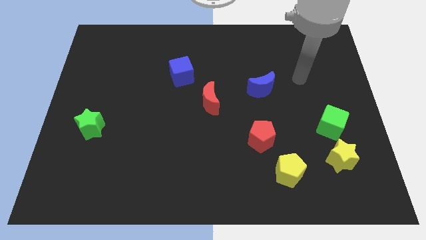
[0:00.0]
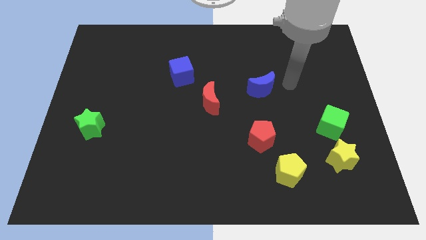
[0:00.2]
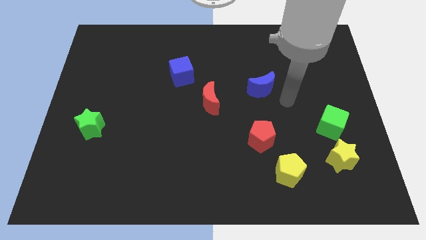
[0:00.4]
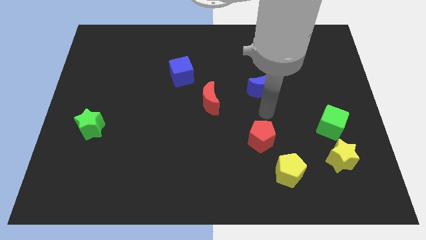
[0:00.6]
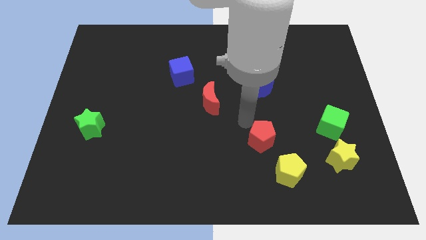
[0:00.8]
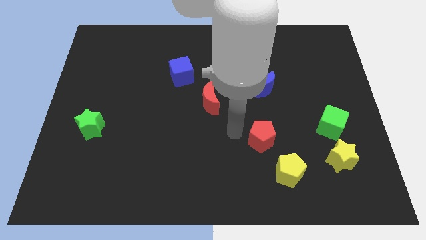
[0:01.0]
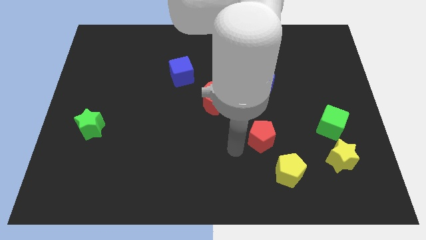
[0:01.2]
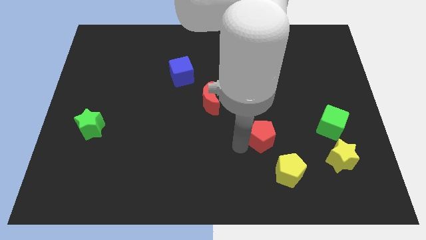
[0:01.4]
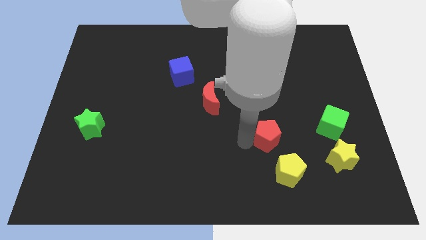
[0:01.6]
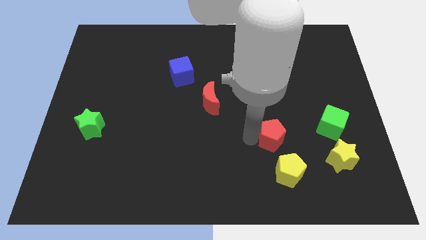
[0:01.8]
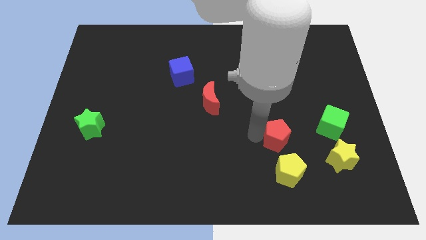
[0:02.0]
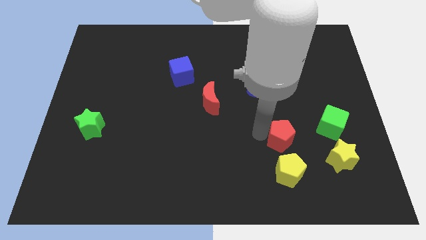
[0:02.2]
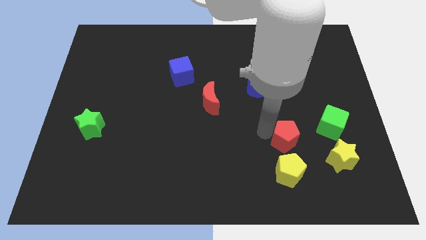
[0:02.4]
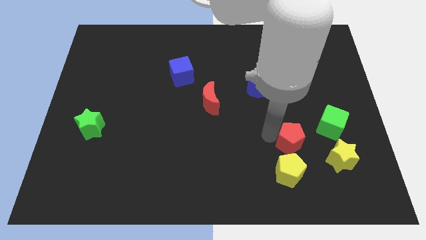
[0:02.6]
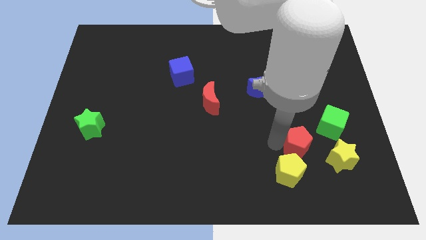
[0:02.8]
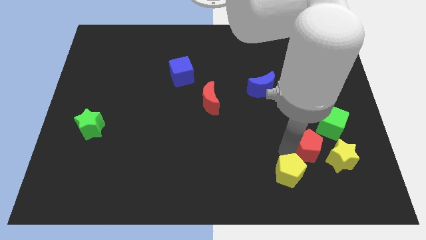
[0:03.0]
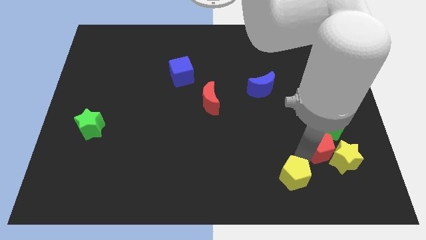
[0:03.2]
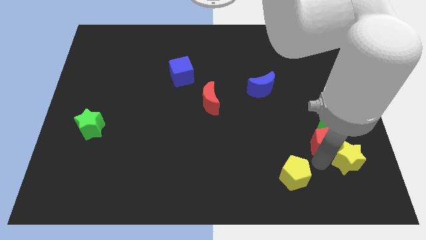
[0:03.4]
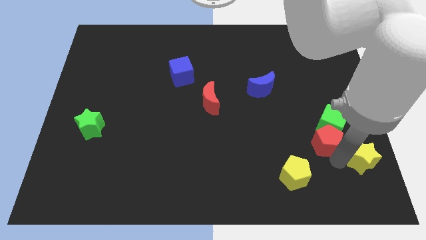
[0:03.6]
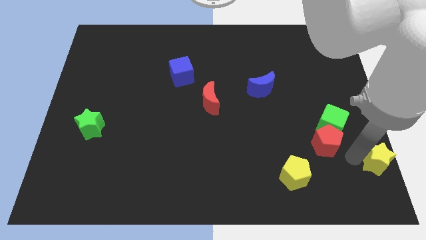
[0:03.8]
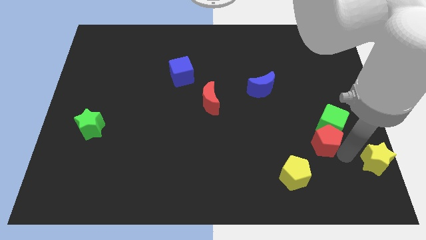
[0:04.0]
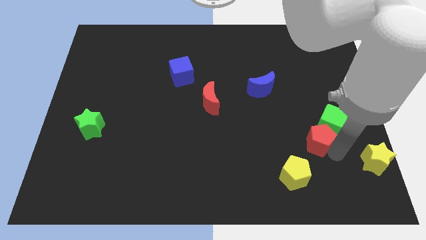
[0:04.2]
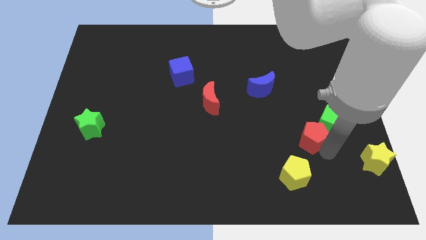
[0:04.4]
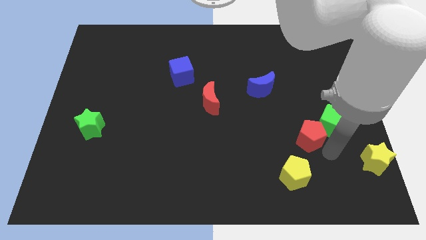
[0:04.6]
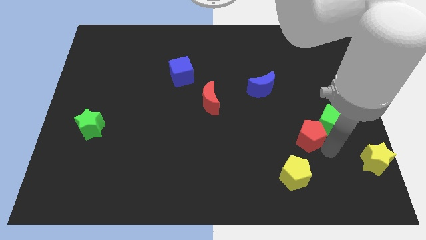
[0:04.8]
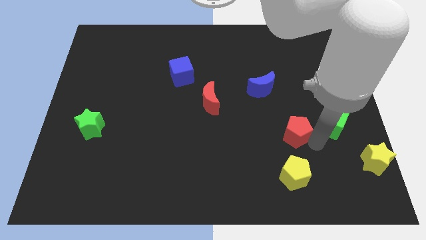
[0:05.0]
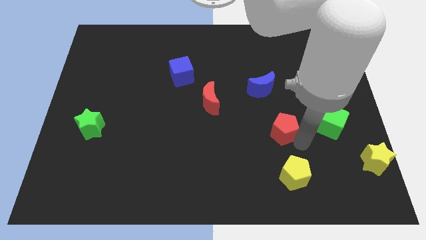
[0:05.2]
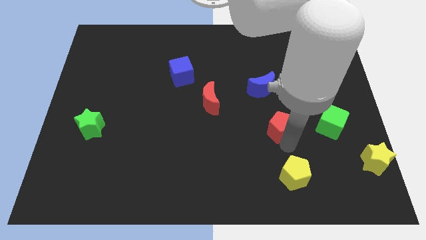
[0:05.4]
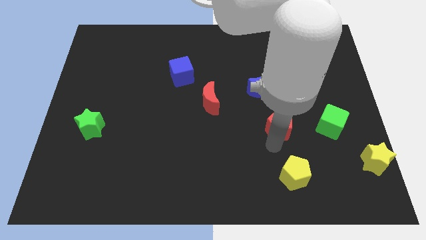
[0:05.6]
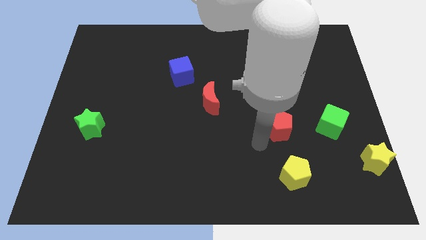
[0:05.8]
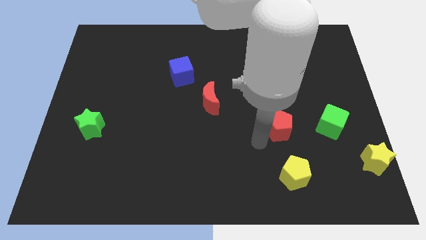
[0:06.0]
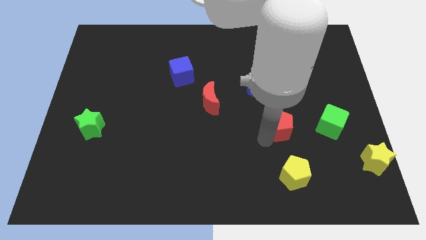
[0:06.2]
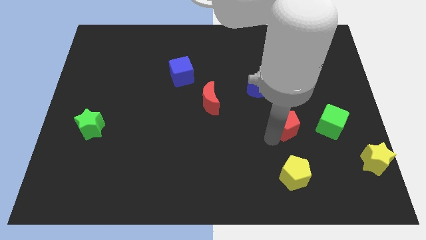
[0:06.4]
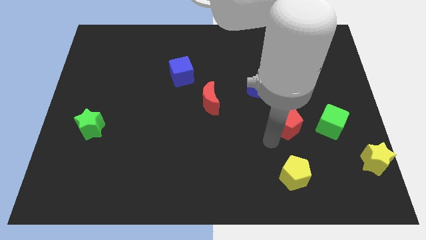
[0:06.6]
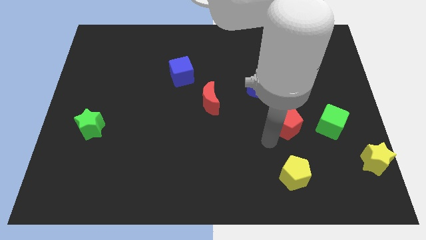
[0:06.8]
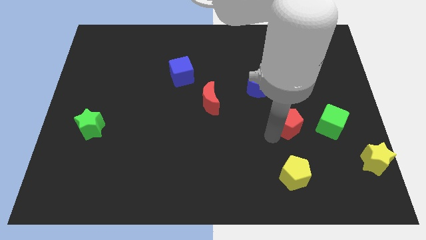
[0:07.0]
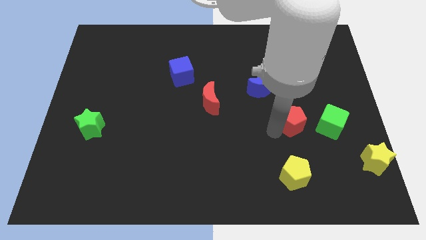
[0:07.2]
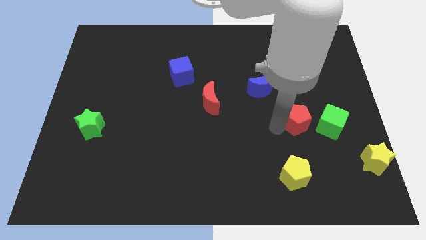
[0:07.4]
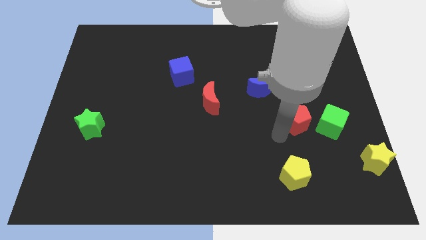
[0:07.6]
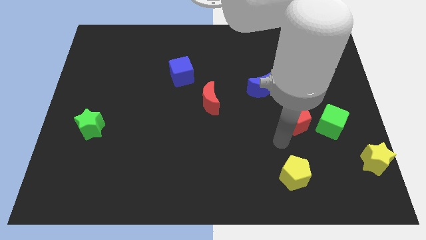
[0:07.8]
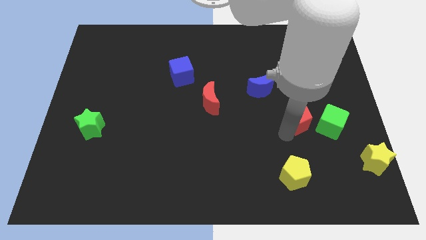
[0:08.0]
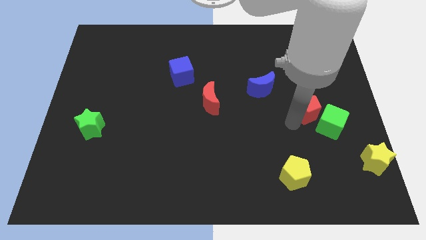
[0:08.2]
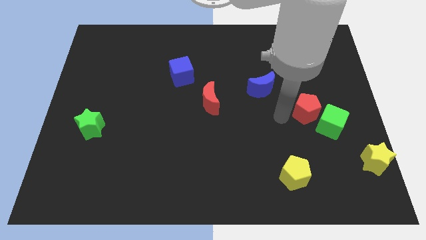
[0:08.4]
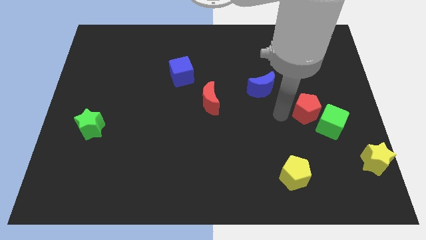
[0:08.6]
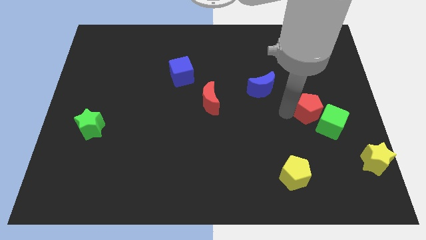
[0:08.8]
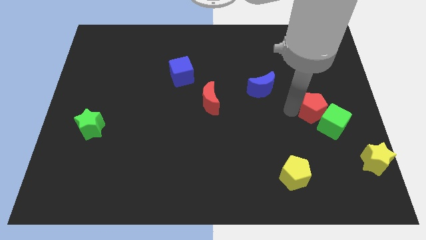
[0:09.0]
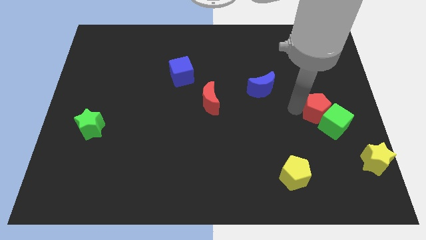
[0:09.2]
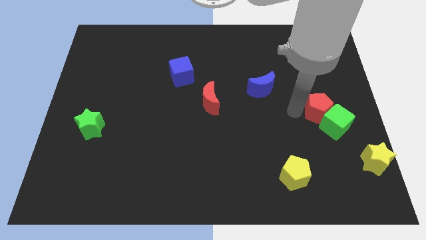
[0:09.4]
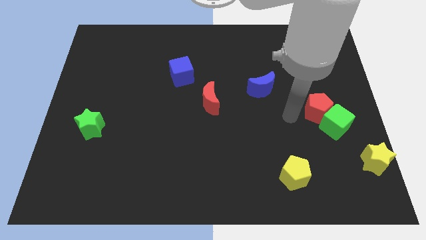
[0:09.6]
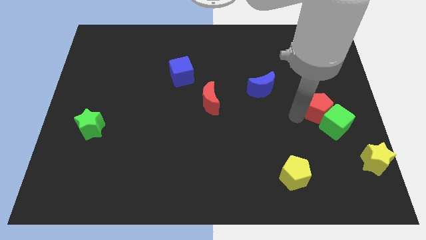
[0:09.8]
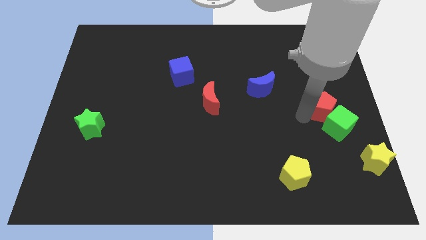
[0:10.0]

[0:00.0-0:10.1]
push the red pentagon to the right side

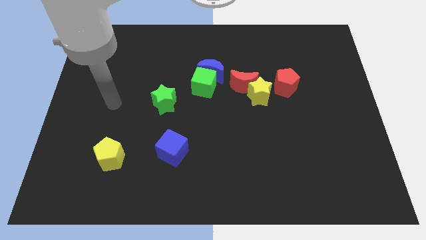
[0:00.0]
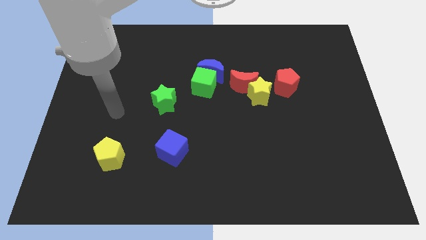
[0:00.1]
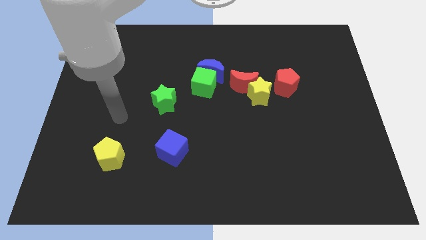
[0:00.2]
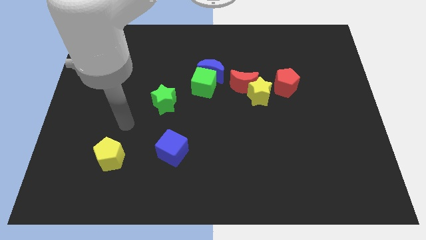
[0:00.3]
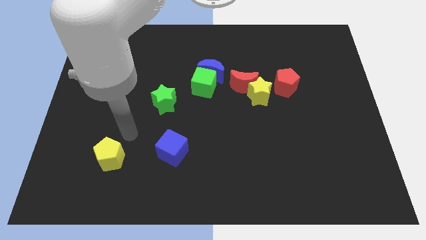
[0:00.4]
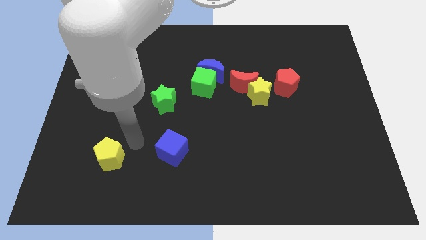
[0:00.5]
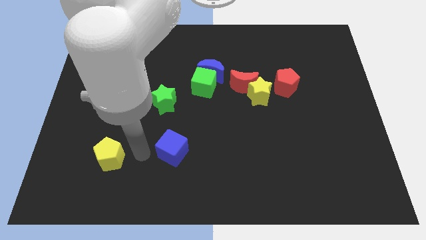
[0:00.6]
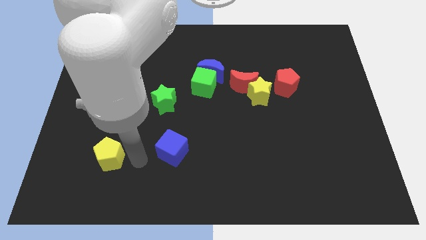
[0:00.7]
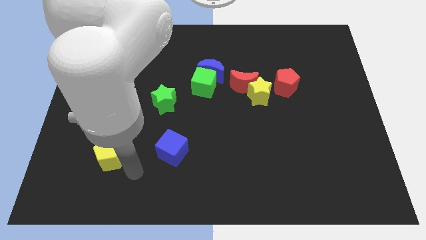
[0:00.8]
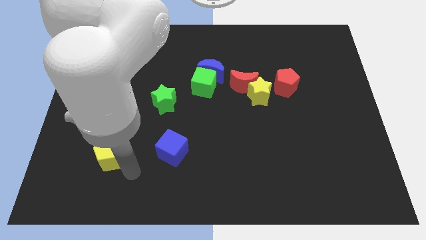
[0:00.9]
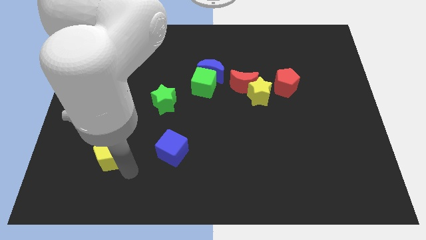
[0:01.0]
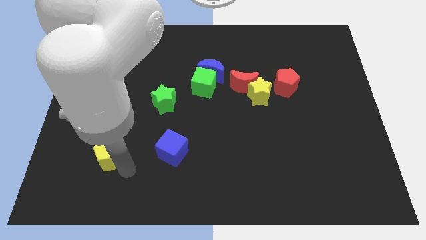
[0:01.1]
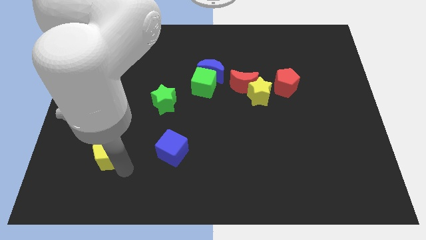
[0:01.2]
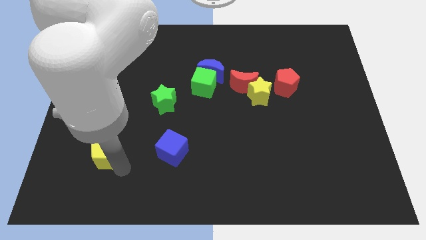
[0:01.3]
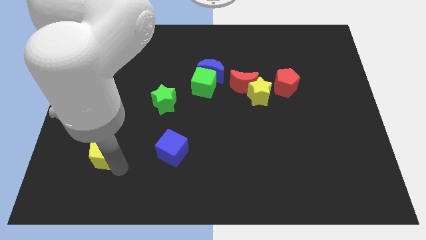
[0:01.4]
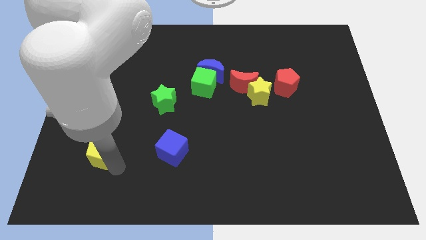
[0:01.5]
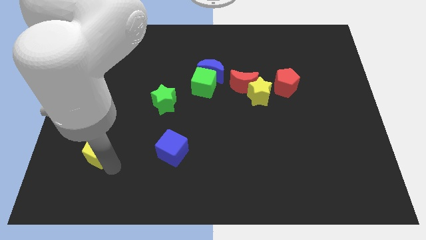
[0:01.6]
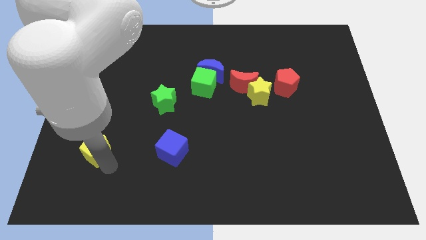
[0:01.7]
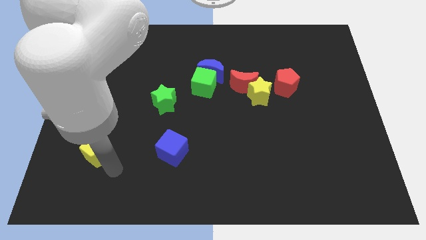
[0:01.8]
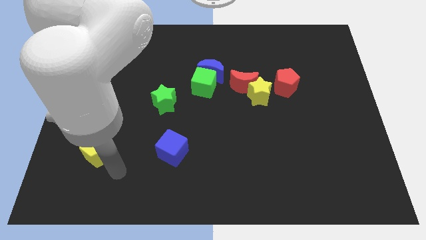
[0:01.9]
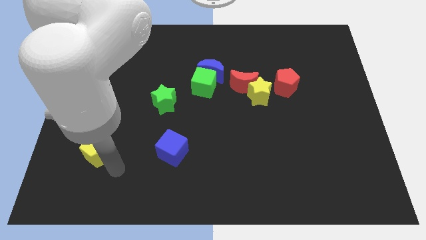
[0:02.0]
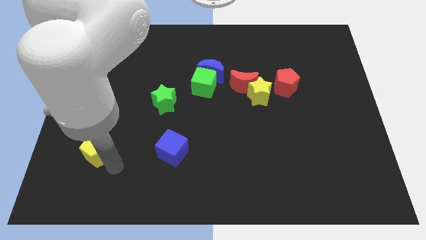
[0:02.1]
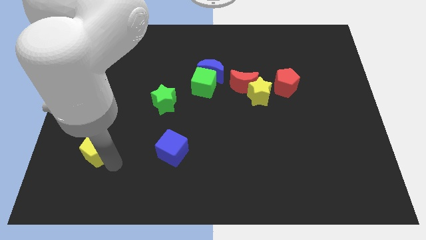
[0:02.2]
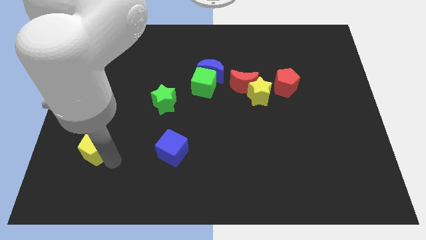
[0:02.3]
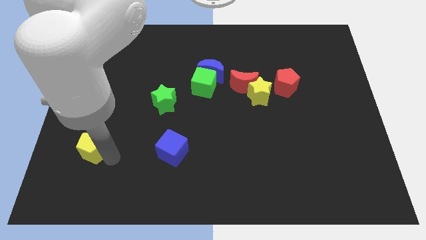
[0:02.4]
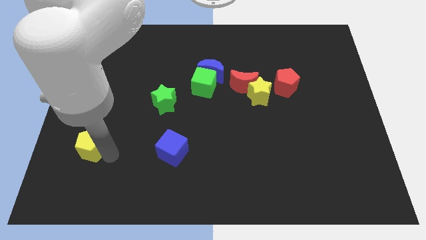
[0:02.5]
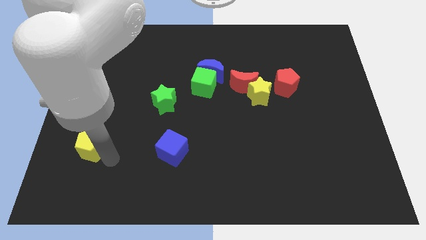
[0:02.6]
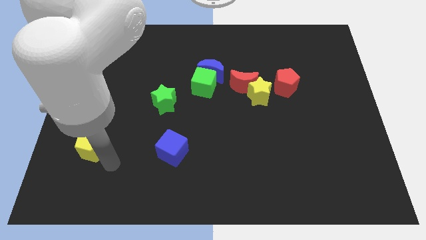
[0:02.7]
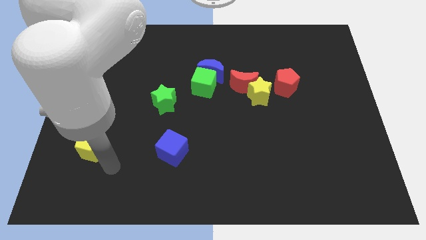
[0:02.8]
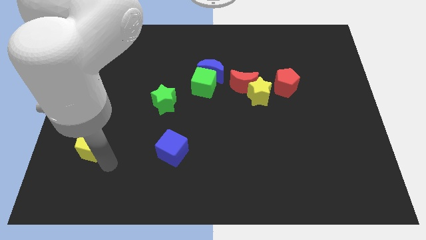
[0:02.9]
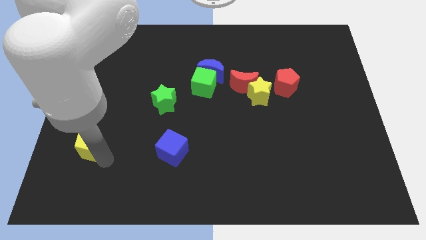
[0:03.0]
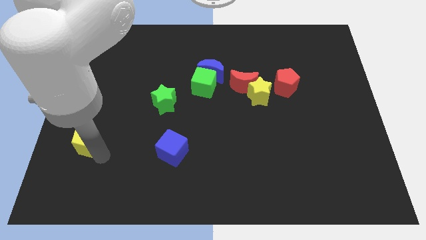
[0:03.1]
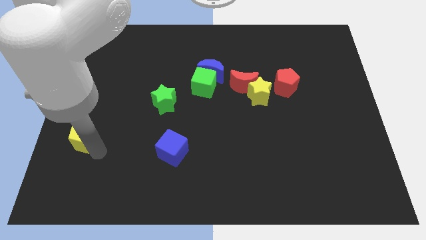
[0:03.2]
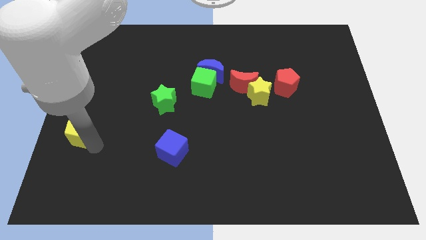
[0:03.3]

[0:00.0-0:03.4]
put the yellow pentagon to the left side of the board
